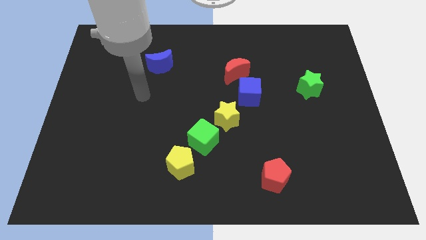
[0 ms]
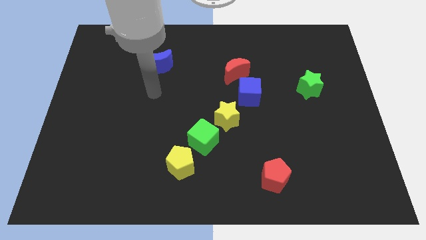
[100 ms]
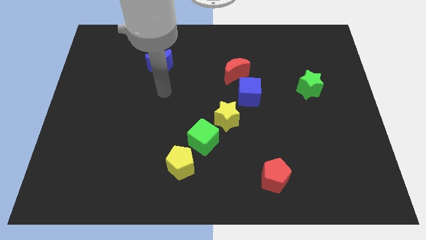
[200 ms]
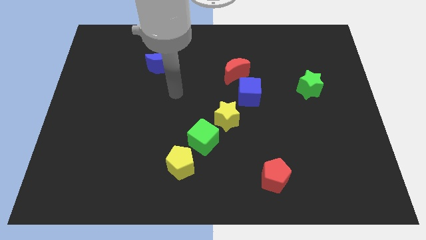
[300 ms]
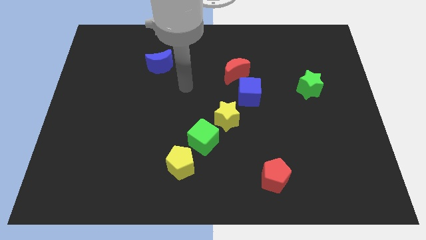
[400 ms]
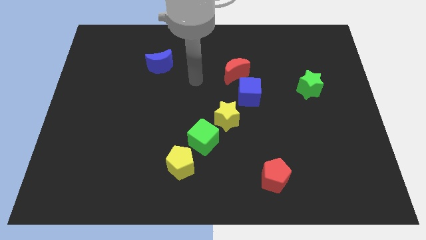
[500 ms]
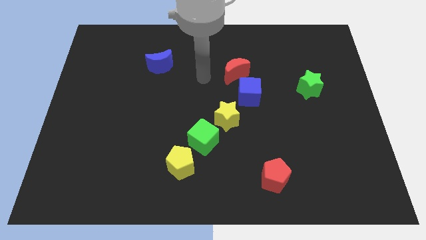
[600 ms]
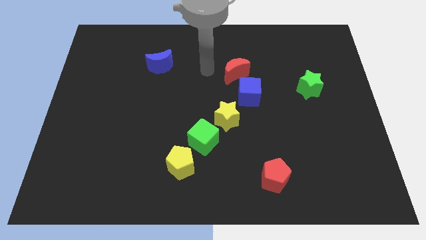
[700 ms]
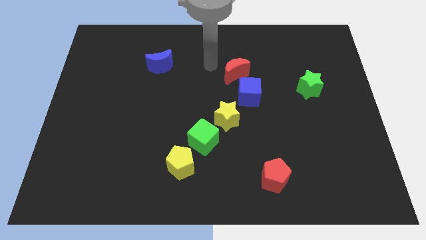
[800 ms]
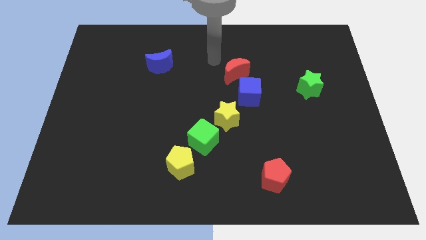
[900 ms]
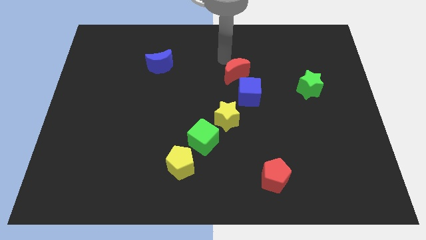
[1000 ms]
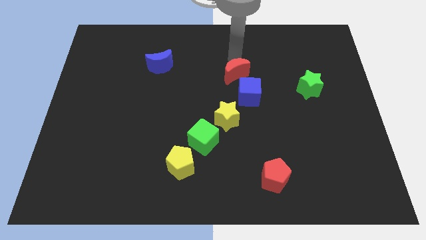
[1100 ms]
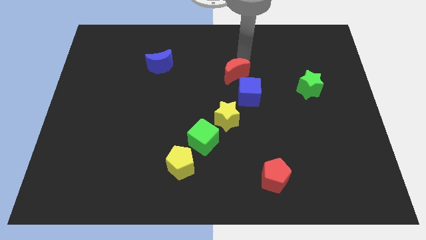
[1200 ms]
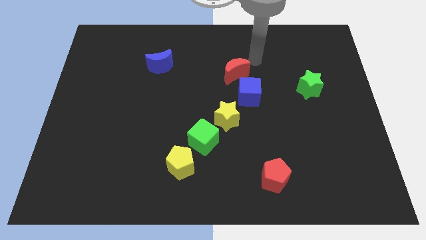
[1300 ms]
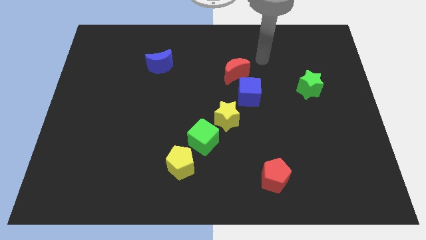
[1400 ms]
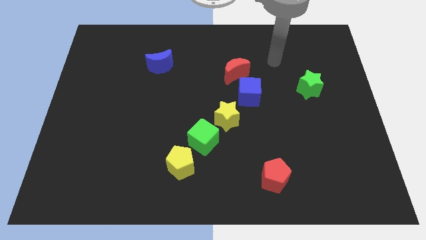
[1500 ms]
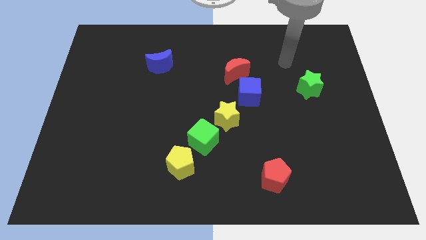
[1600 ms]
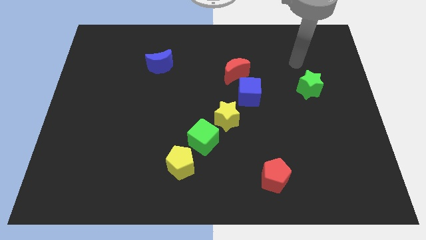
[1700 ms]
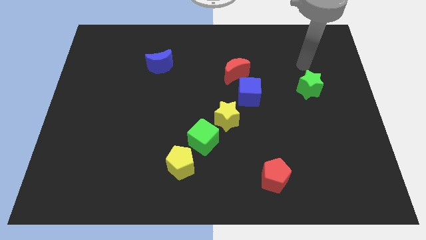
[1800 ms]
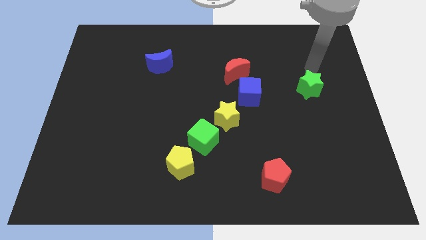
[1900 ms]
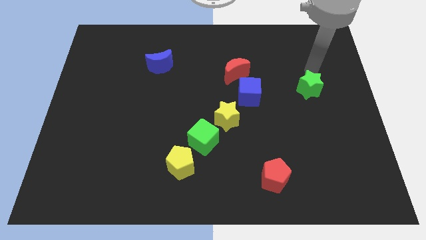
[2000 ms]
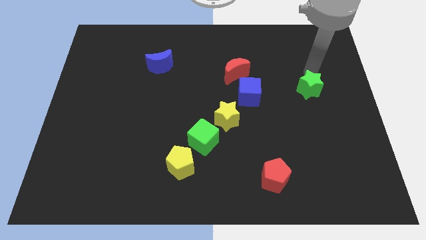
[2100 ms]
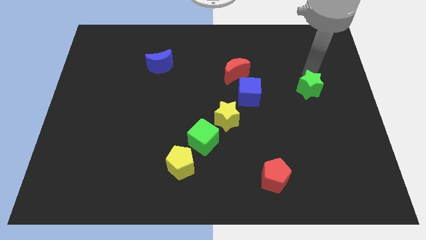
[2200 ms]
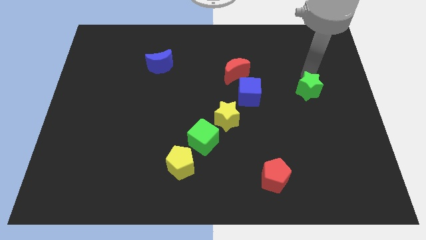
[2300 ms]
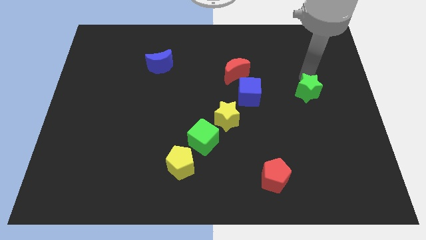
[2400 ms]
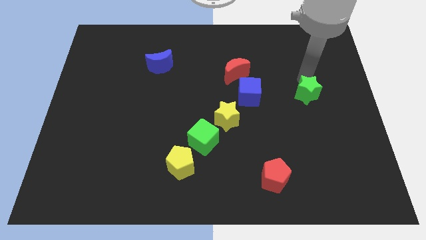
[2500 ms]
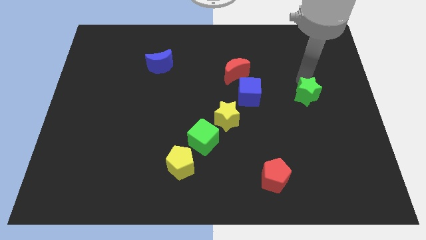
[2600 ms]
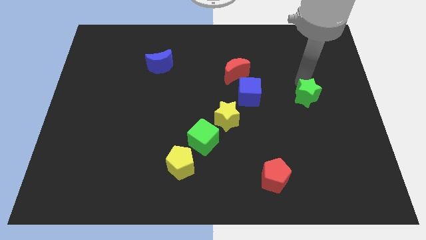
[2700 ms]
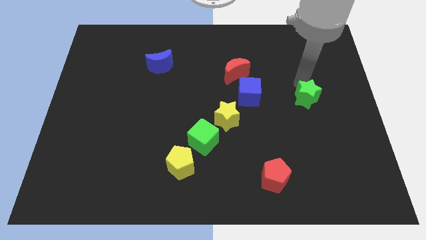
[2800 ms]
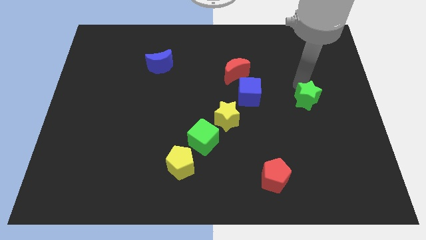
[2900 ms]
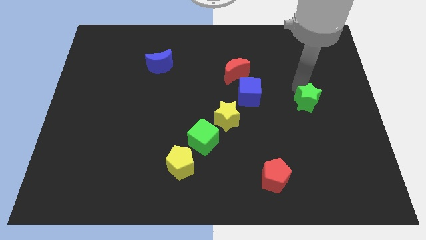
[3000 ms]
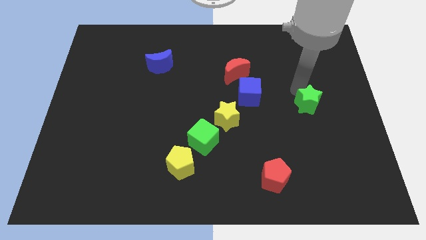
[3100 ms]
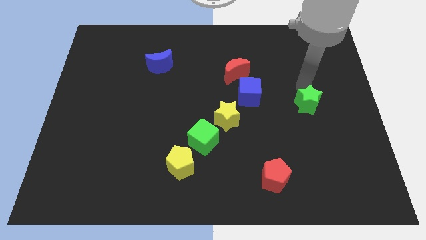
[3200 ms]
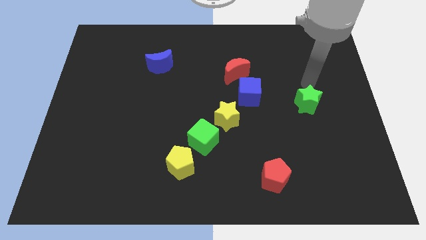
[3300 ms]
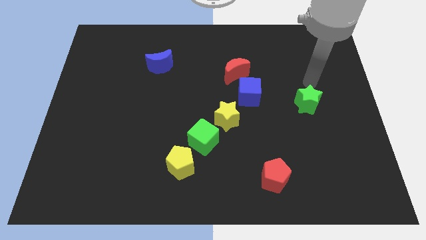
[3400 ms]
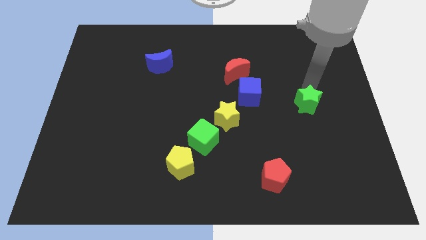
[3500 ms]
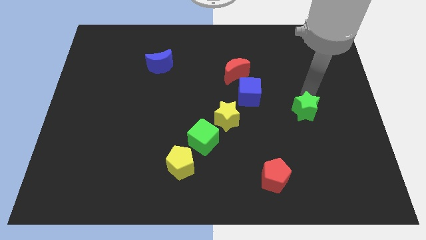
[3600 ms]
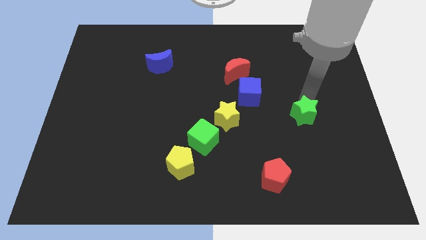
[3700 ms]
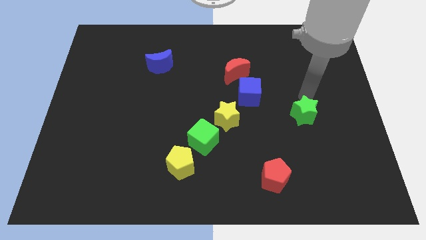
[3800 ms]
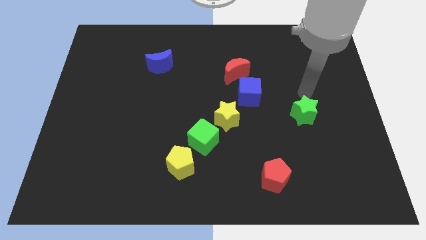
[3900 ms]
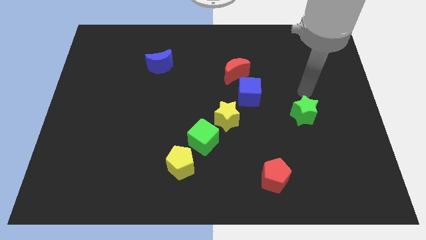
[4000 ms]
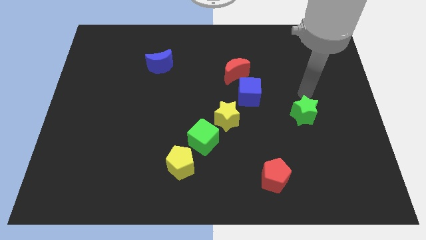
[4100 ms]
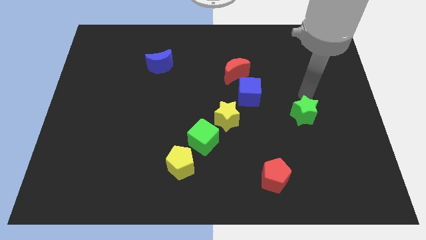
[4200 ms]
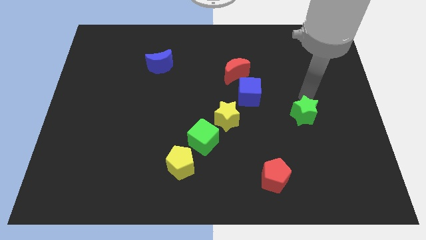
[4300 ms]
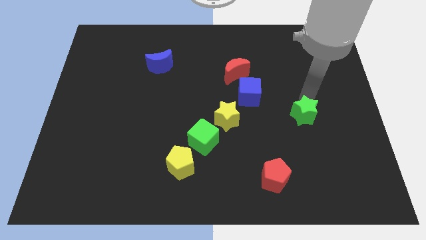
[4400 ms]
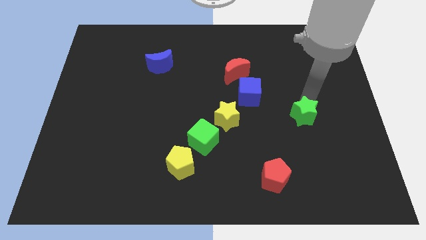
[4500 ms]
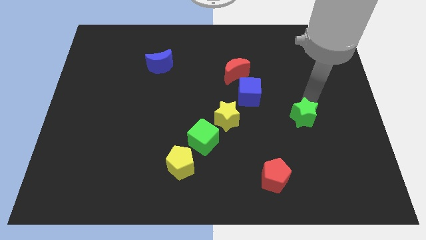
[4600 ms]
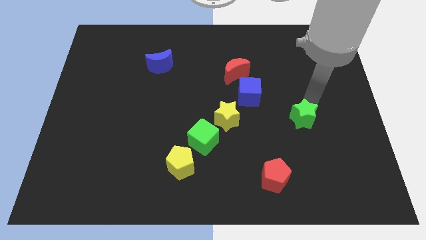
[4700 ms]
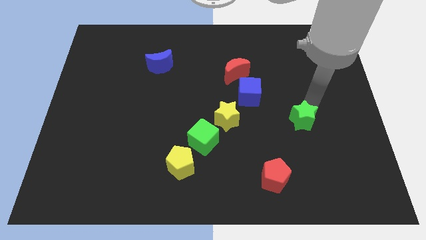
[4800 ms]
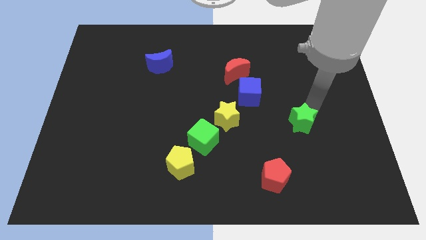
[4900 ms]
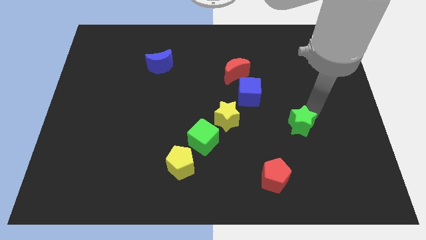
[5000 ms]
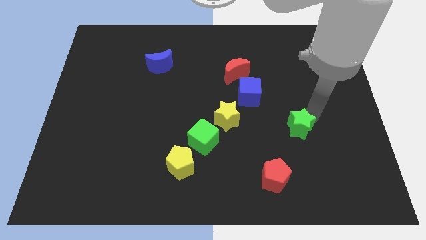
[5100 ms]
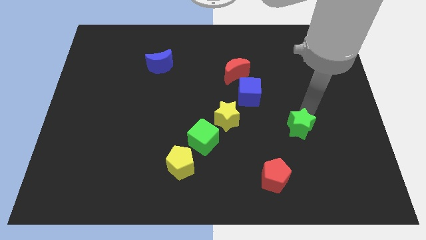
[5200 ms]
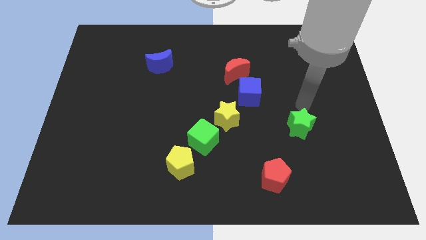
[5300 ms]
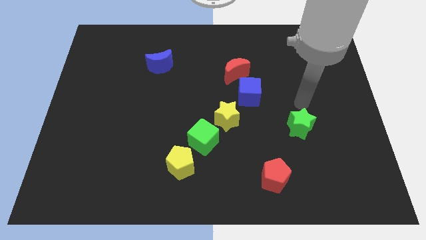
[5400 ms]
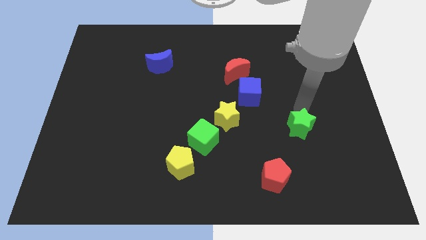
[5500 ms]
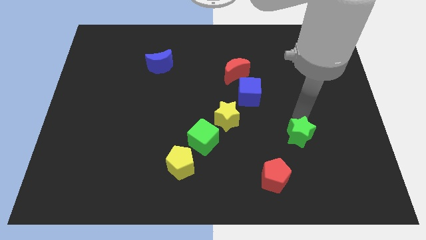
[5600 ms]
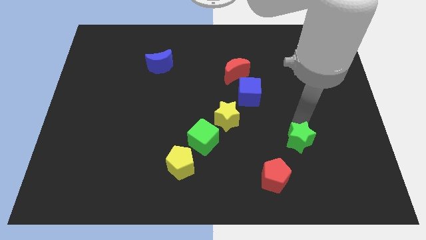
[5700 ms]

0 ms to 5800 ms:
push the green star to the top right of the red pentagon

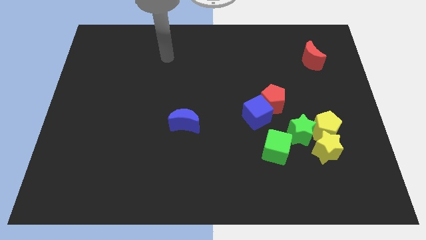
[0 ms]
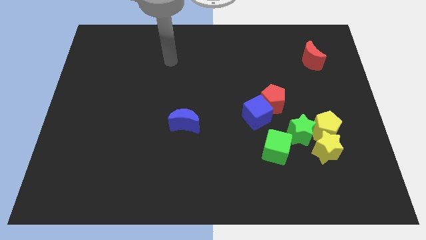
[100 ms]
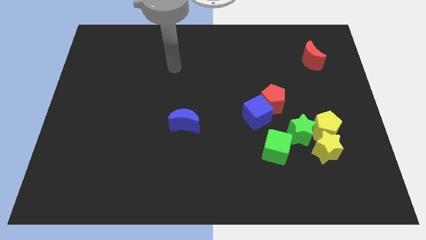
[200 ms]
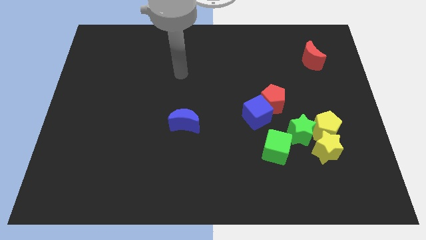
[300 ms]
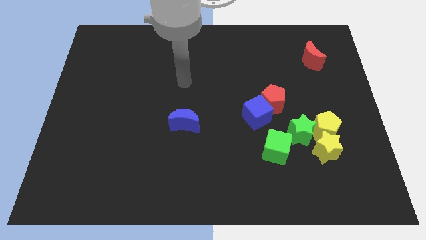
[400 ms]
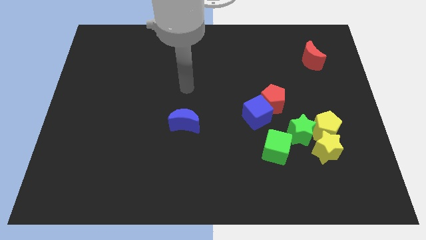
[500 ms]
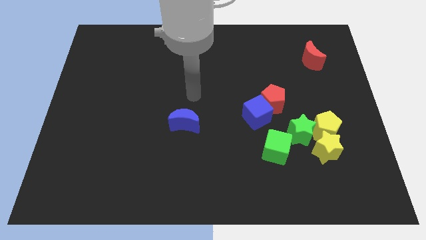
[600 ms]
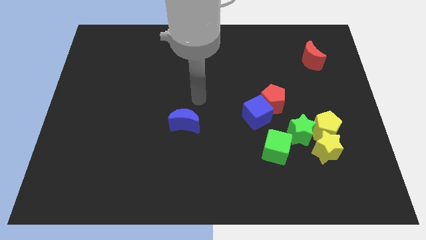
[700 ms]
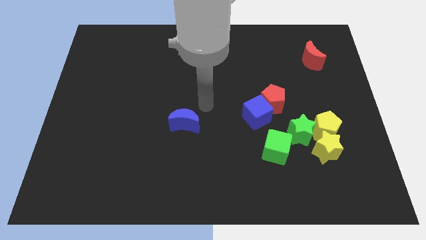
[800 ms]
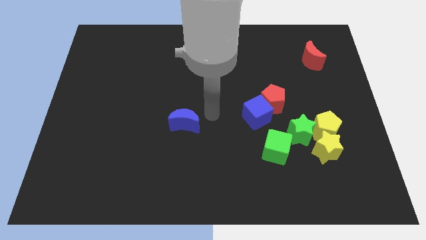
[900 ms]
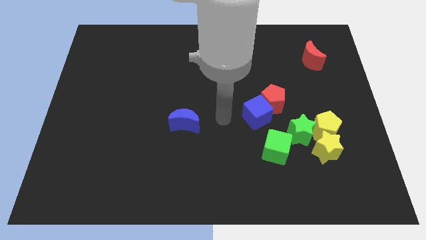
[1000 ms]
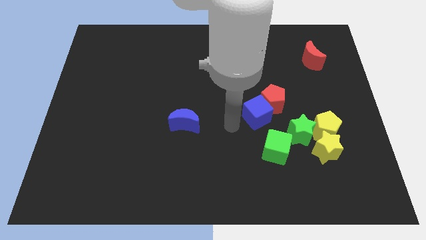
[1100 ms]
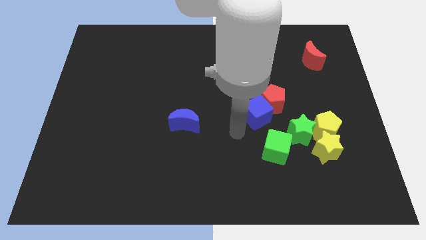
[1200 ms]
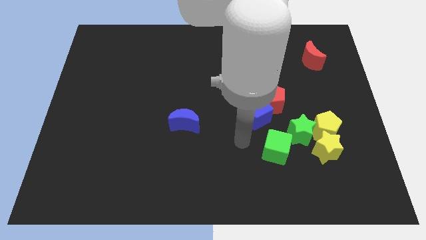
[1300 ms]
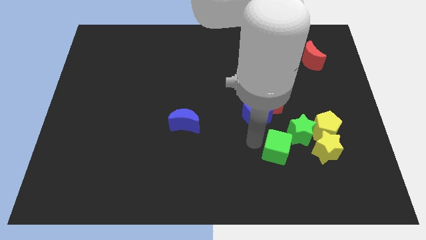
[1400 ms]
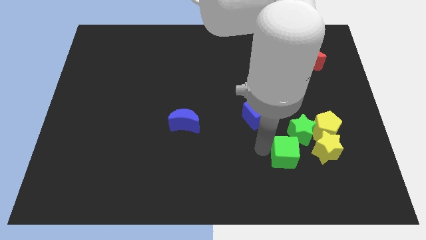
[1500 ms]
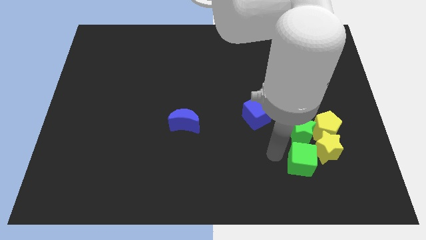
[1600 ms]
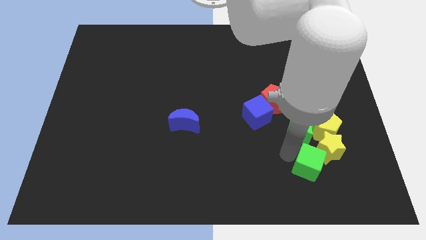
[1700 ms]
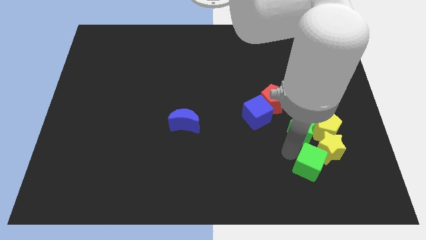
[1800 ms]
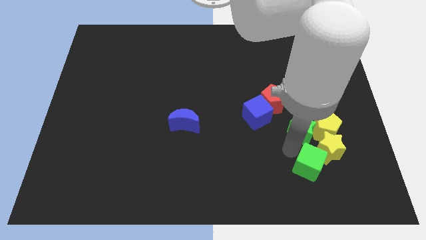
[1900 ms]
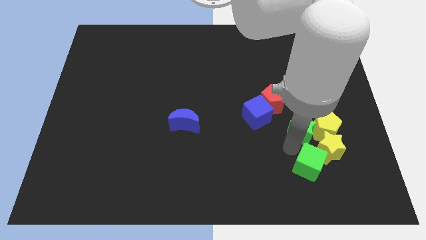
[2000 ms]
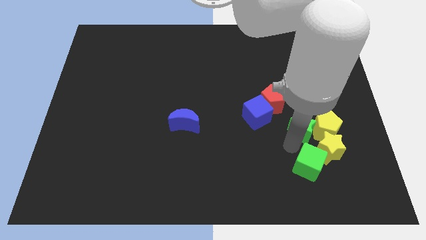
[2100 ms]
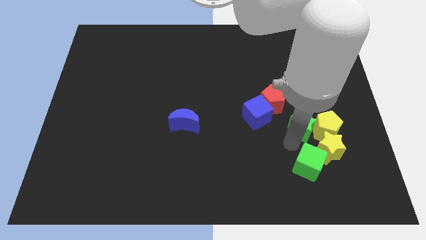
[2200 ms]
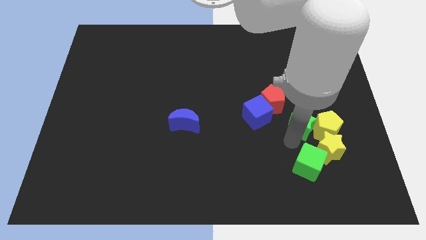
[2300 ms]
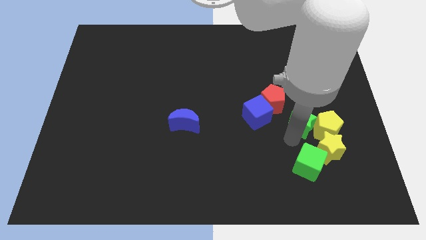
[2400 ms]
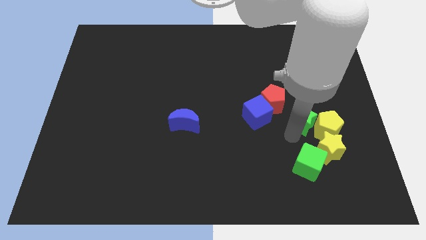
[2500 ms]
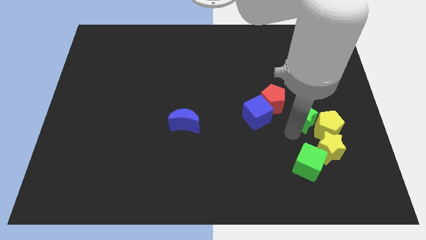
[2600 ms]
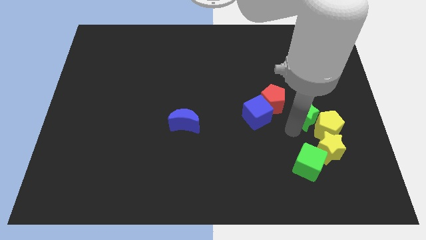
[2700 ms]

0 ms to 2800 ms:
push the green star to the right of the red pentagon
